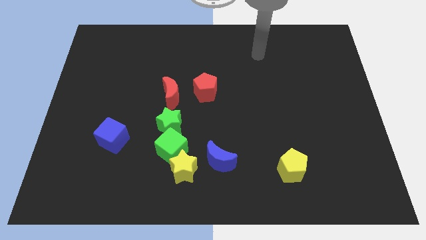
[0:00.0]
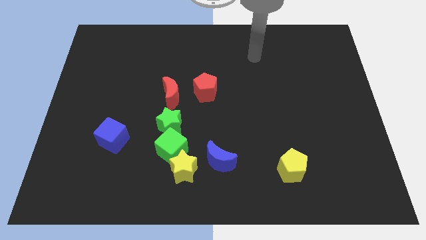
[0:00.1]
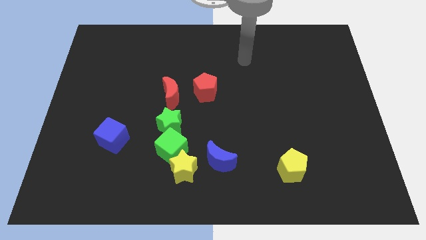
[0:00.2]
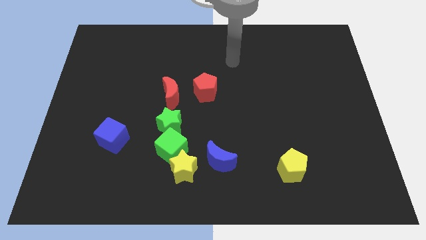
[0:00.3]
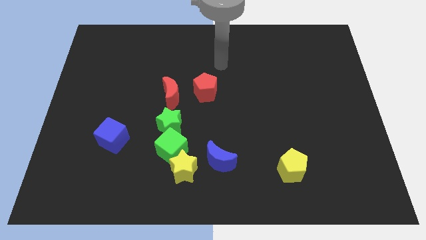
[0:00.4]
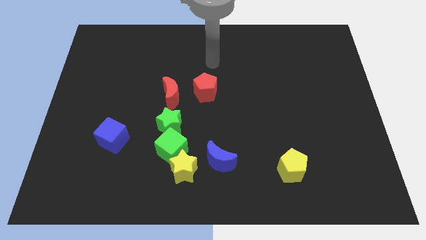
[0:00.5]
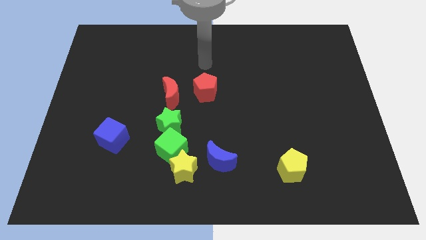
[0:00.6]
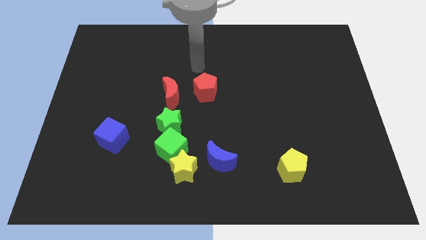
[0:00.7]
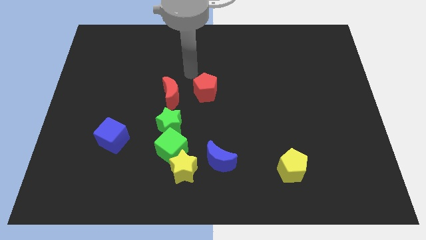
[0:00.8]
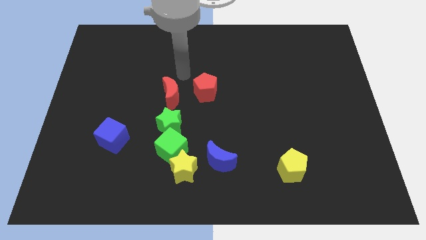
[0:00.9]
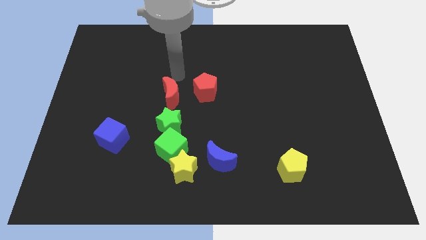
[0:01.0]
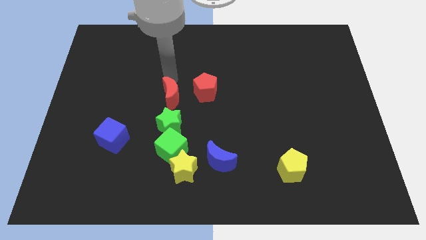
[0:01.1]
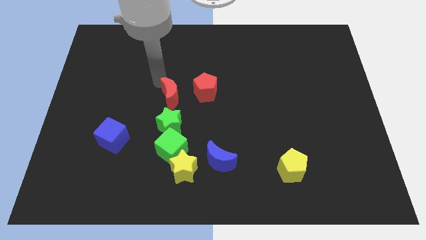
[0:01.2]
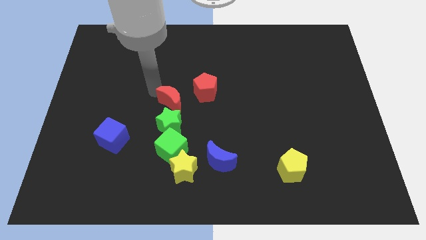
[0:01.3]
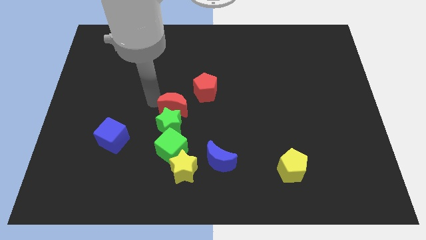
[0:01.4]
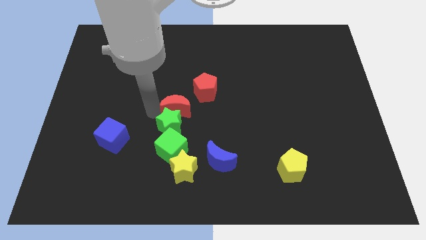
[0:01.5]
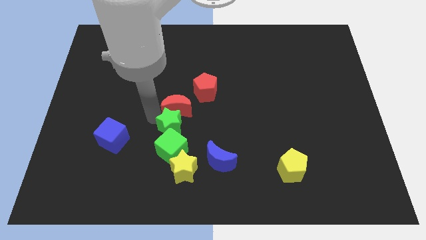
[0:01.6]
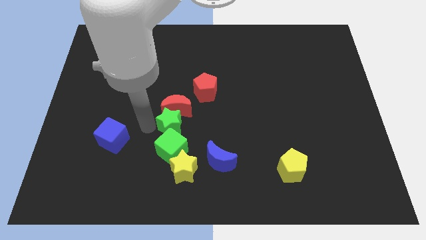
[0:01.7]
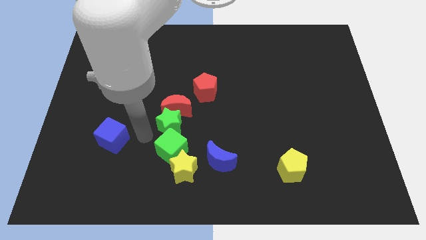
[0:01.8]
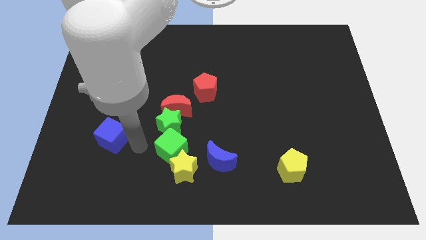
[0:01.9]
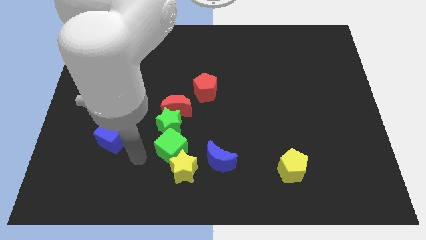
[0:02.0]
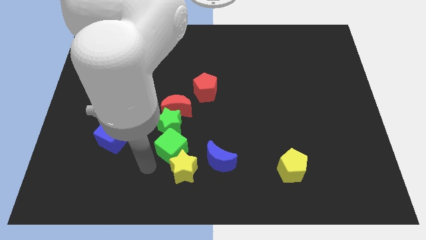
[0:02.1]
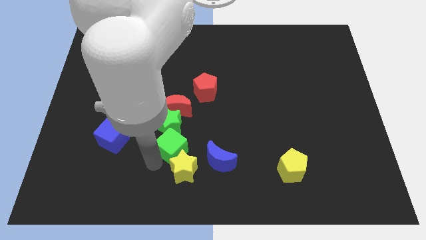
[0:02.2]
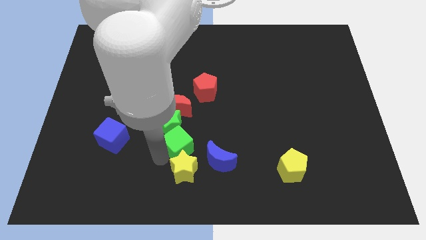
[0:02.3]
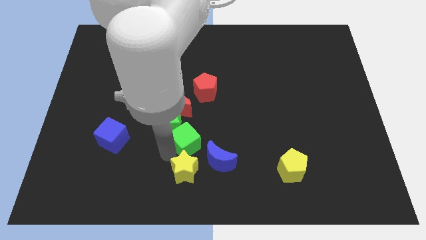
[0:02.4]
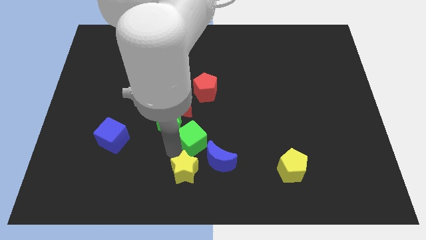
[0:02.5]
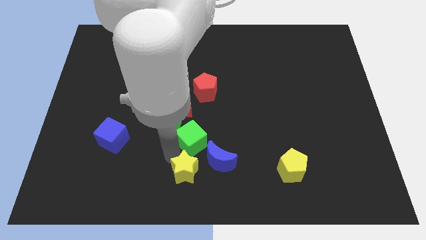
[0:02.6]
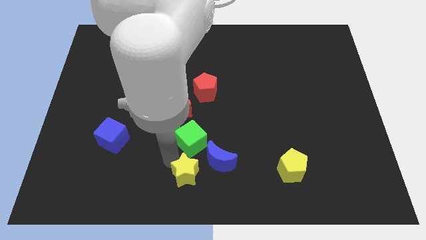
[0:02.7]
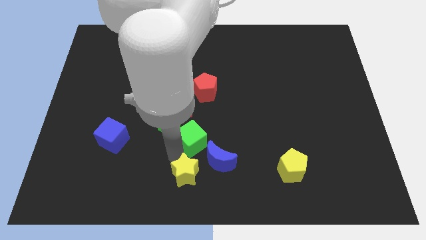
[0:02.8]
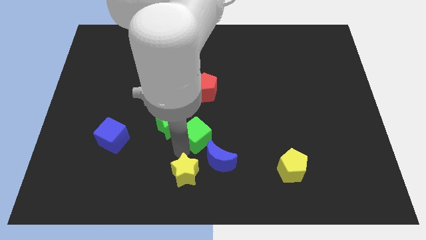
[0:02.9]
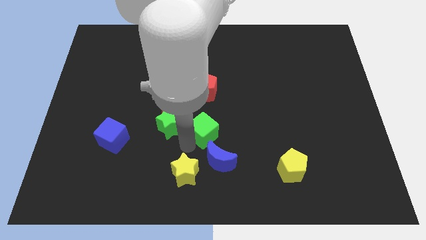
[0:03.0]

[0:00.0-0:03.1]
push the green cube a bit upwards and then to the right

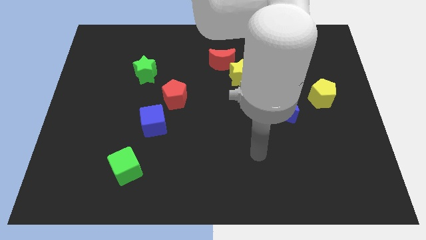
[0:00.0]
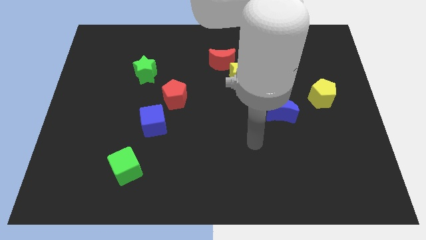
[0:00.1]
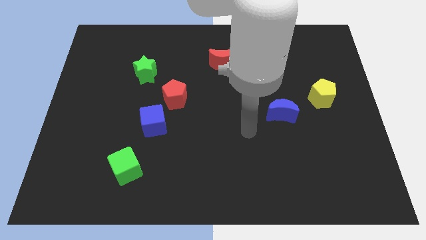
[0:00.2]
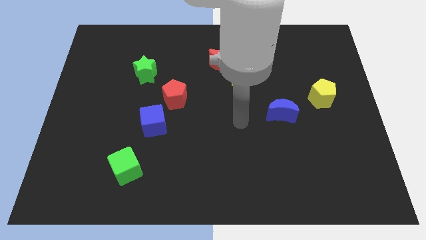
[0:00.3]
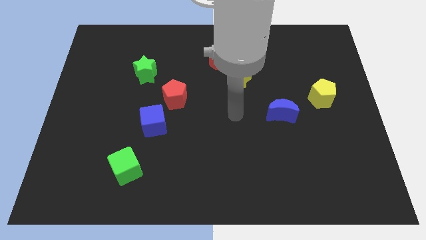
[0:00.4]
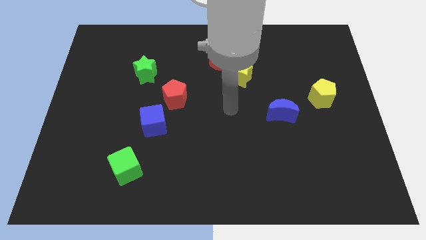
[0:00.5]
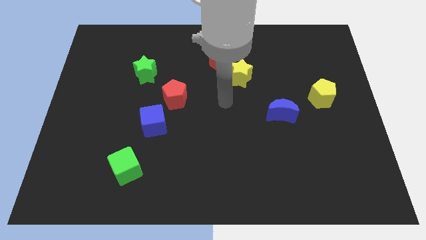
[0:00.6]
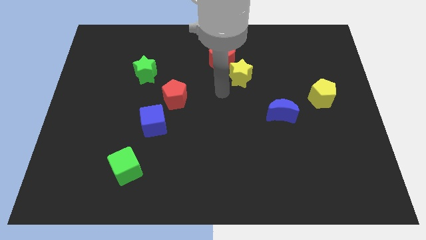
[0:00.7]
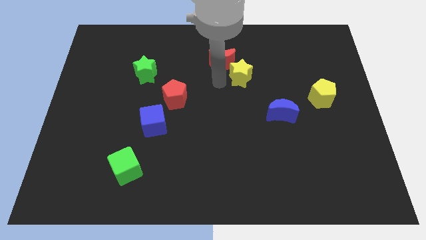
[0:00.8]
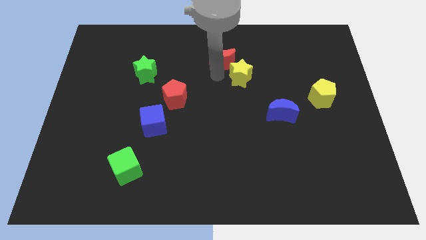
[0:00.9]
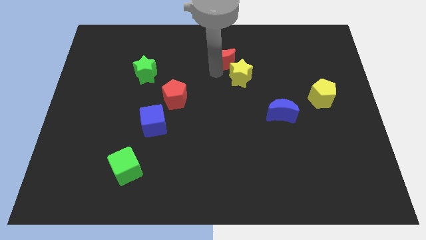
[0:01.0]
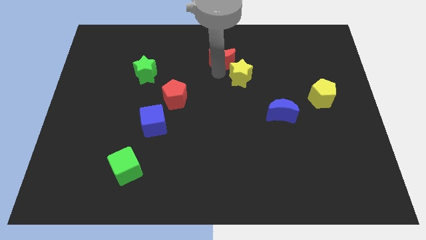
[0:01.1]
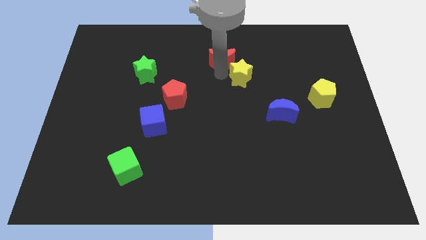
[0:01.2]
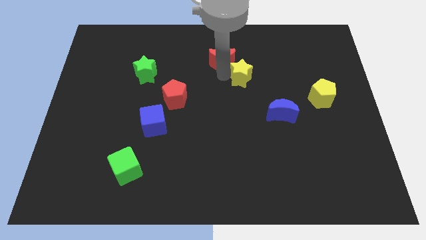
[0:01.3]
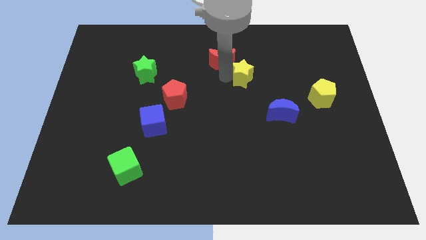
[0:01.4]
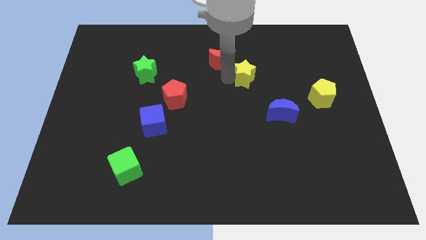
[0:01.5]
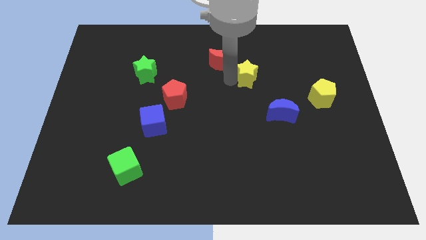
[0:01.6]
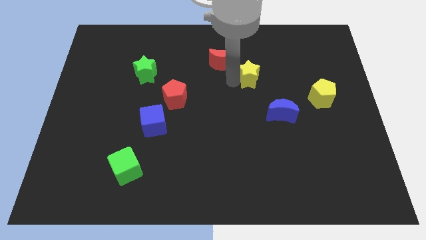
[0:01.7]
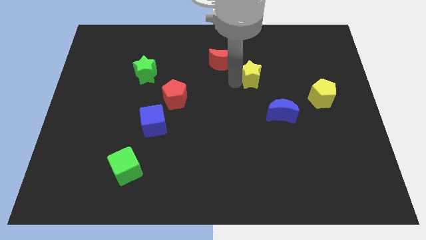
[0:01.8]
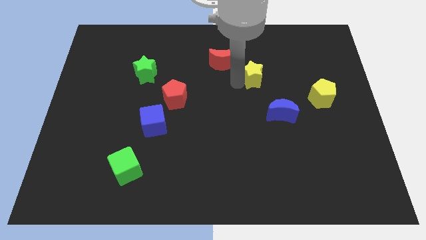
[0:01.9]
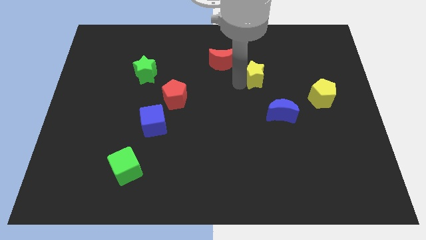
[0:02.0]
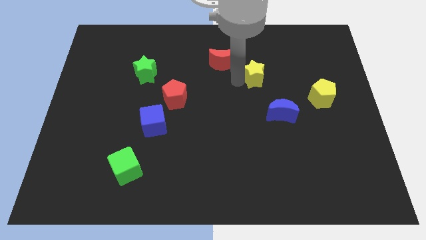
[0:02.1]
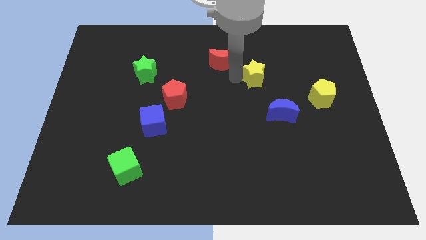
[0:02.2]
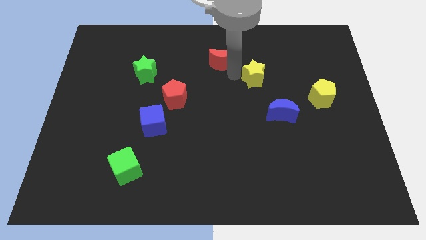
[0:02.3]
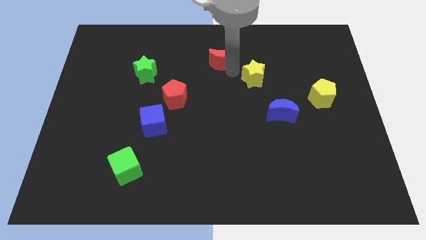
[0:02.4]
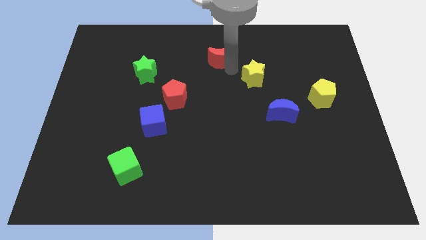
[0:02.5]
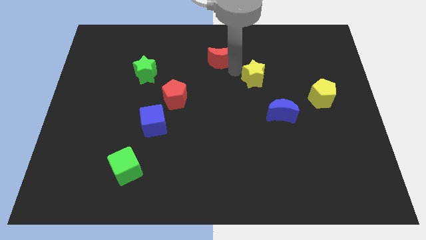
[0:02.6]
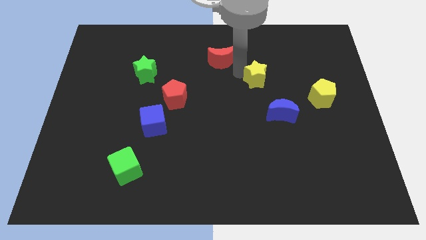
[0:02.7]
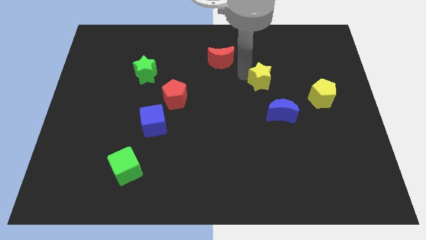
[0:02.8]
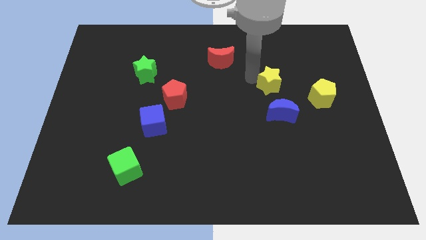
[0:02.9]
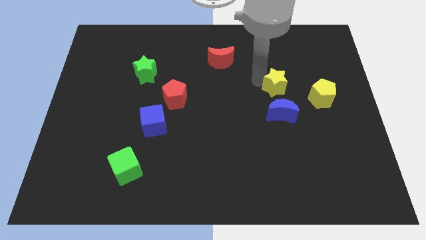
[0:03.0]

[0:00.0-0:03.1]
move the yellow star a little bit downwards and right diagonally

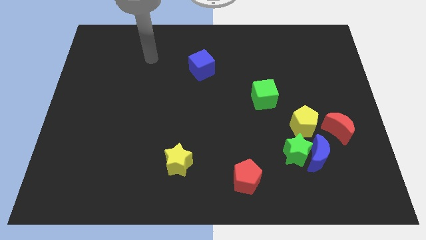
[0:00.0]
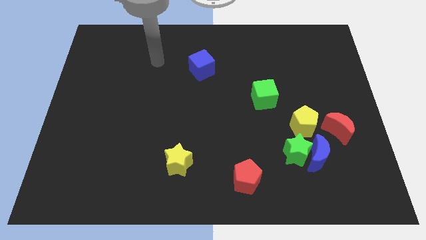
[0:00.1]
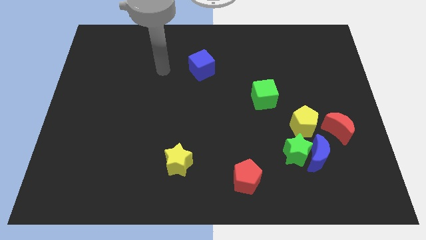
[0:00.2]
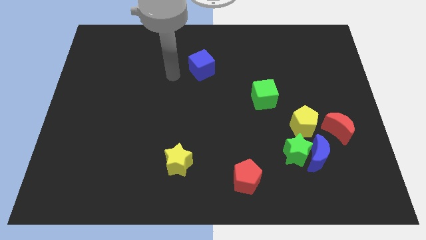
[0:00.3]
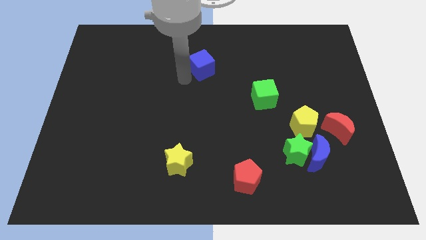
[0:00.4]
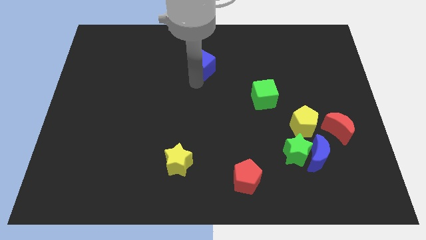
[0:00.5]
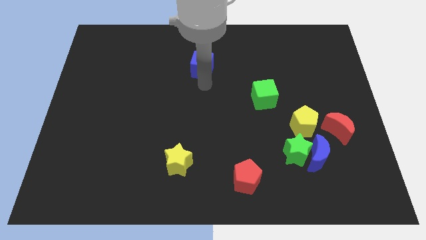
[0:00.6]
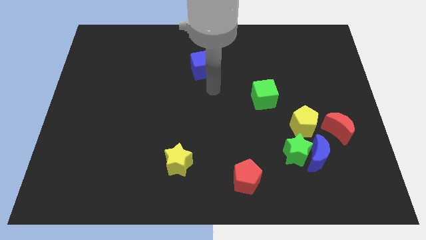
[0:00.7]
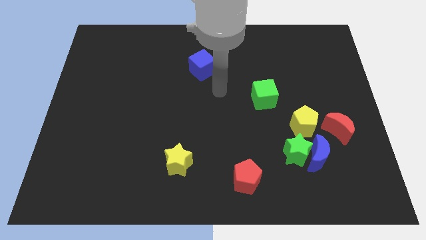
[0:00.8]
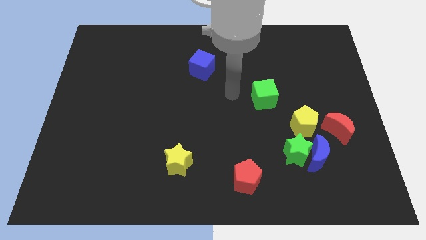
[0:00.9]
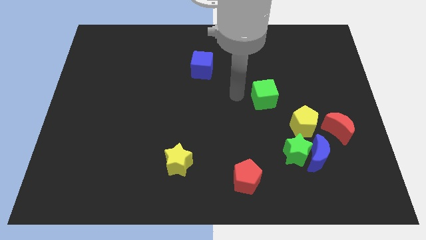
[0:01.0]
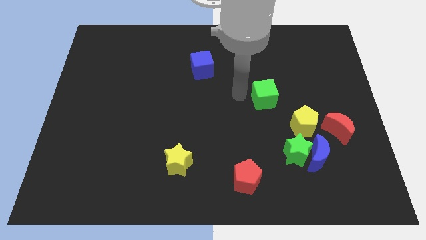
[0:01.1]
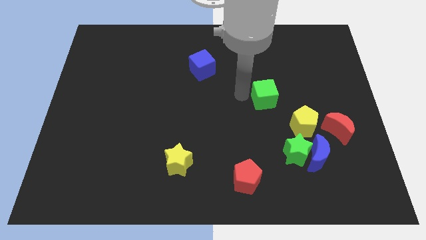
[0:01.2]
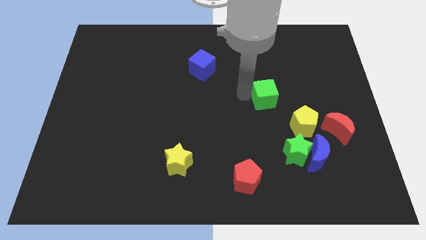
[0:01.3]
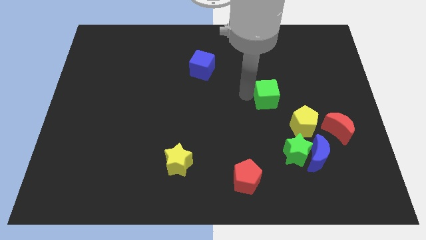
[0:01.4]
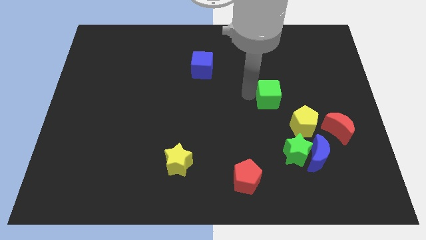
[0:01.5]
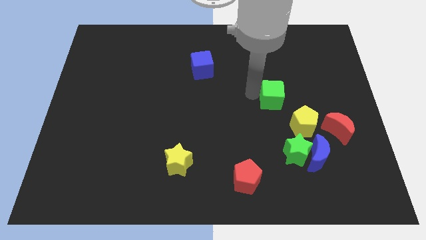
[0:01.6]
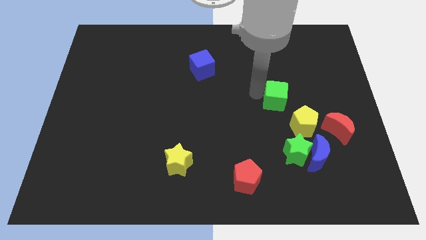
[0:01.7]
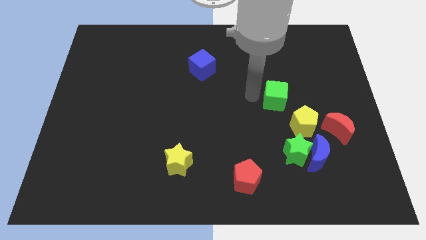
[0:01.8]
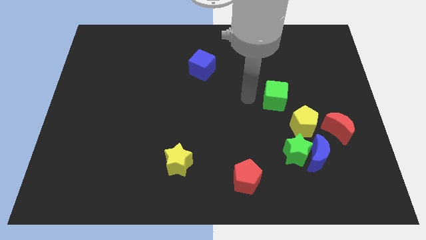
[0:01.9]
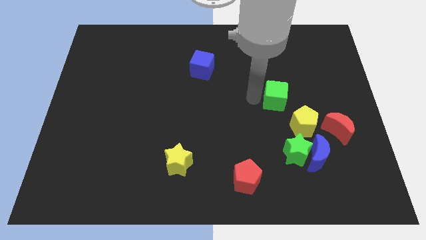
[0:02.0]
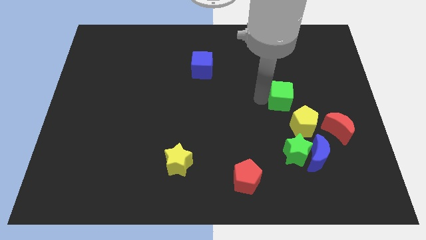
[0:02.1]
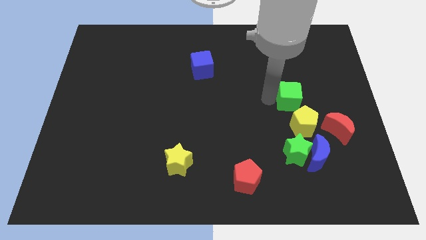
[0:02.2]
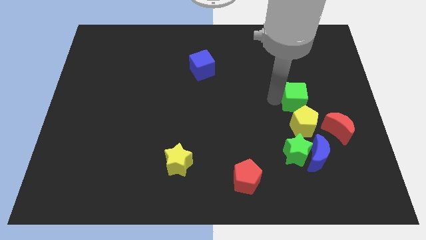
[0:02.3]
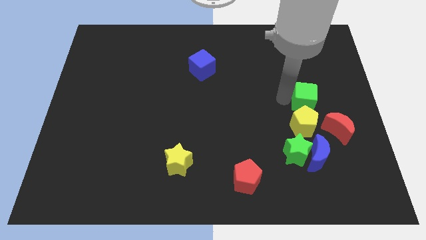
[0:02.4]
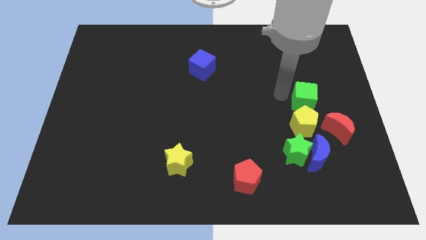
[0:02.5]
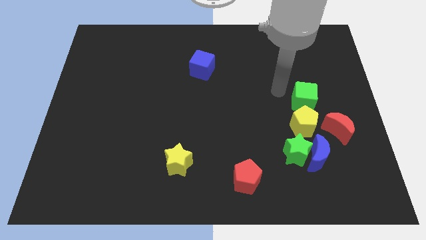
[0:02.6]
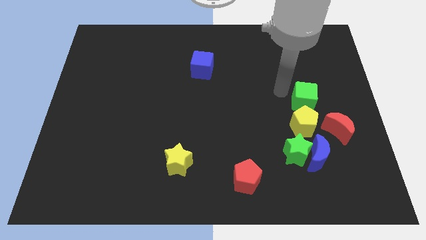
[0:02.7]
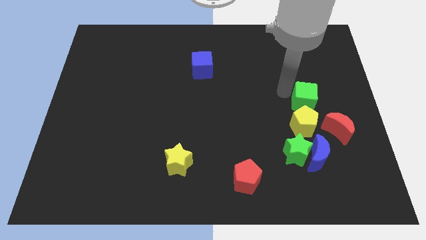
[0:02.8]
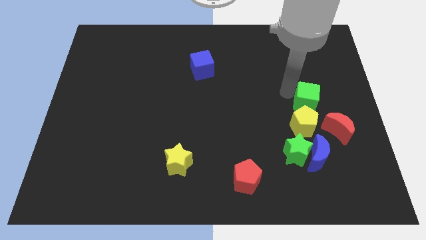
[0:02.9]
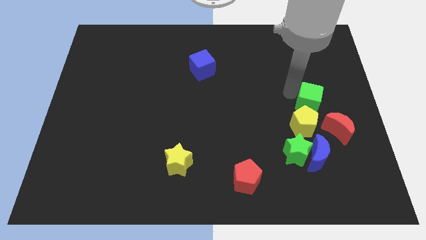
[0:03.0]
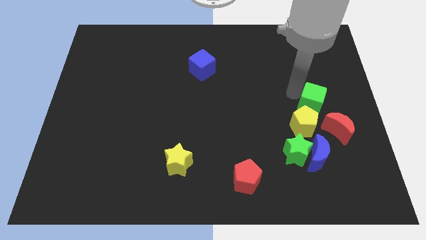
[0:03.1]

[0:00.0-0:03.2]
push the green cube a bit down and to the right
